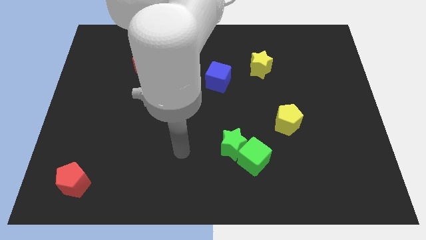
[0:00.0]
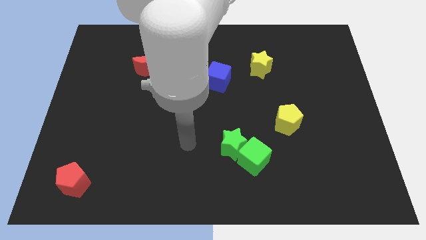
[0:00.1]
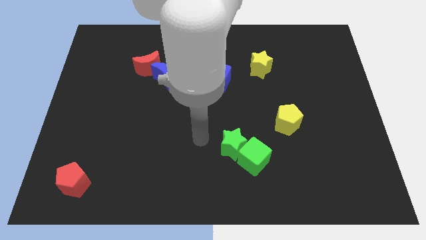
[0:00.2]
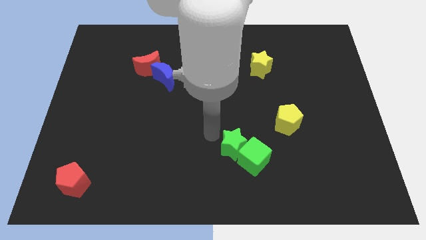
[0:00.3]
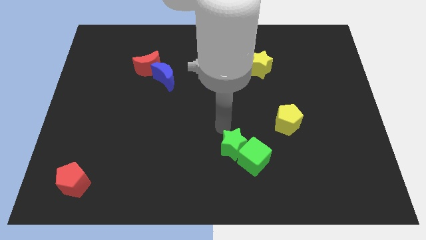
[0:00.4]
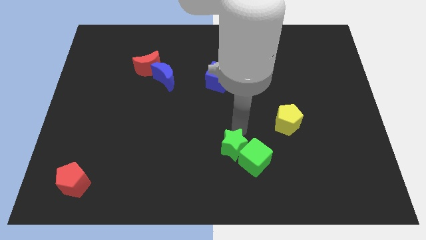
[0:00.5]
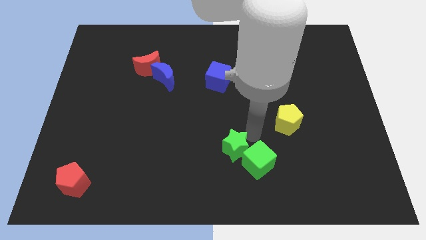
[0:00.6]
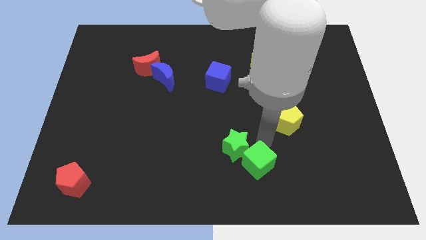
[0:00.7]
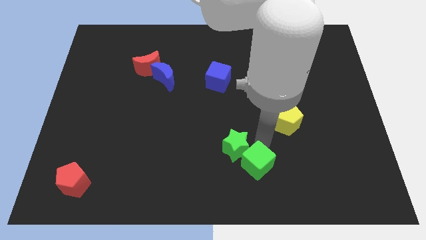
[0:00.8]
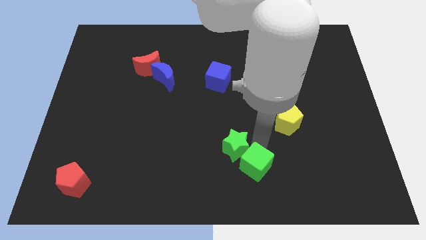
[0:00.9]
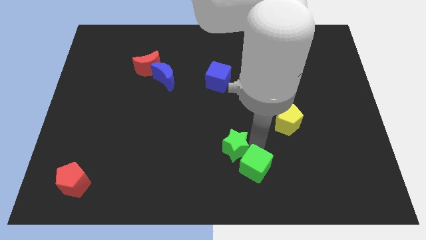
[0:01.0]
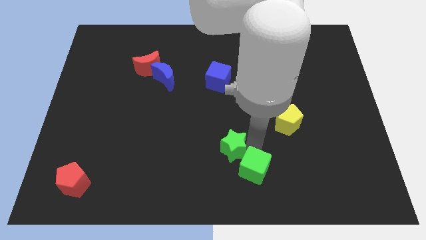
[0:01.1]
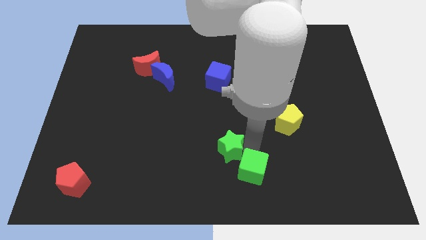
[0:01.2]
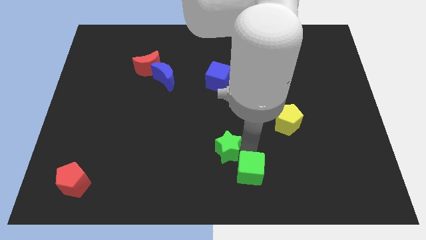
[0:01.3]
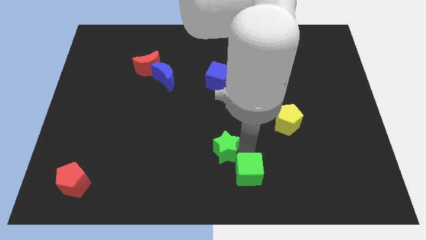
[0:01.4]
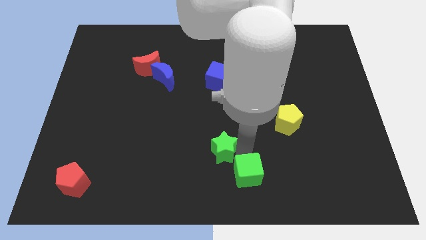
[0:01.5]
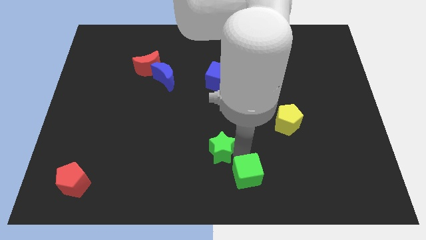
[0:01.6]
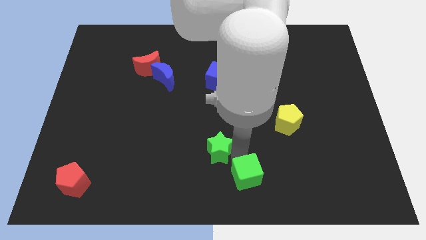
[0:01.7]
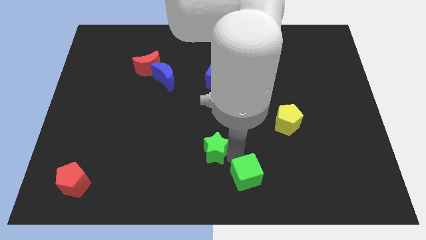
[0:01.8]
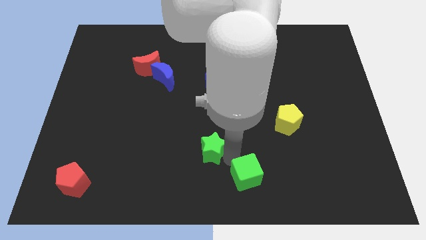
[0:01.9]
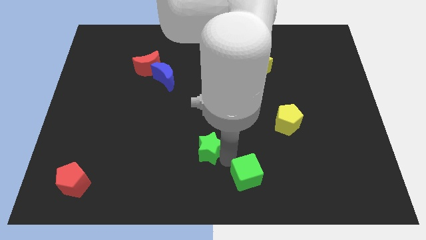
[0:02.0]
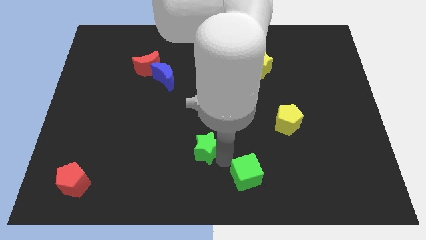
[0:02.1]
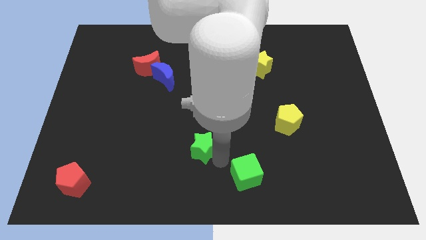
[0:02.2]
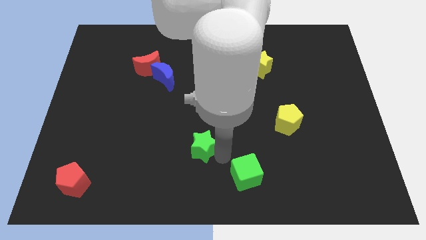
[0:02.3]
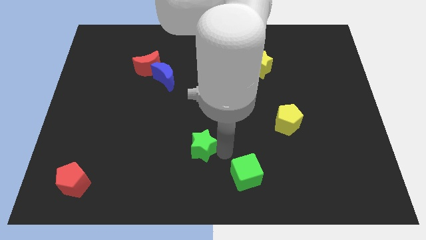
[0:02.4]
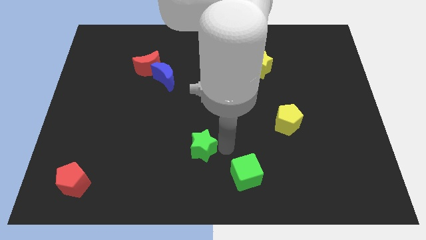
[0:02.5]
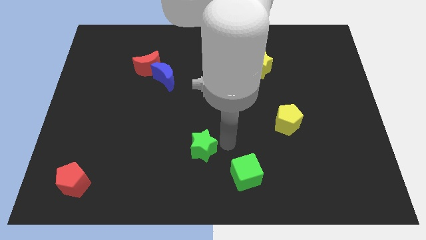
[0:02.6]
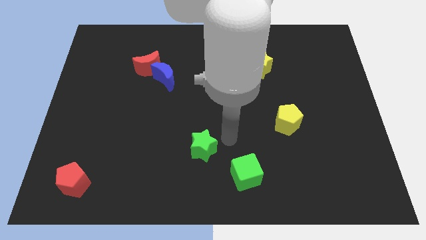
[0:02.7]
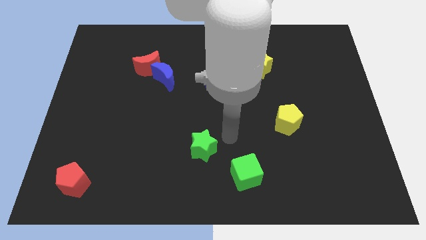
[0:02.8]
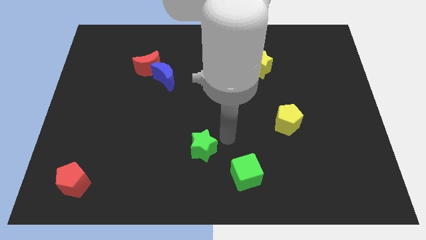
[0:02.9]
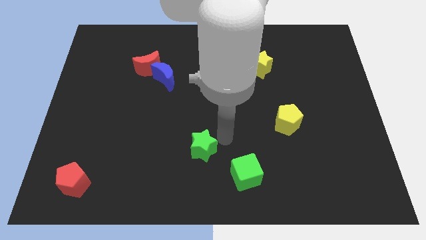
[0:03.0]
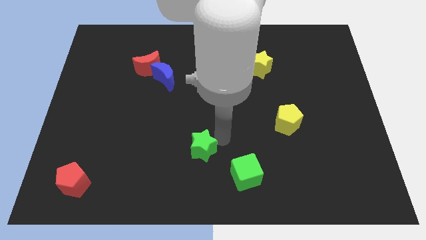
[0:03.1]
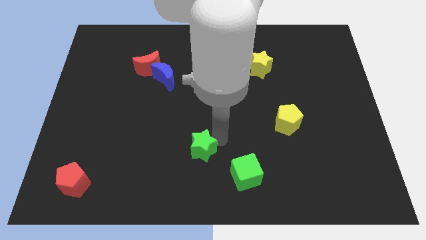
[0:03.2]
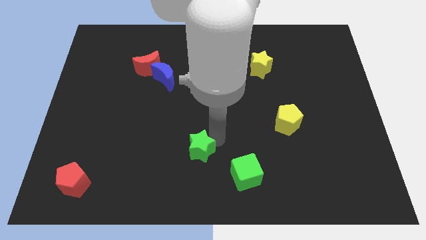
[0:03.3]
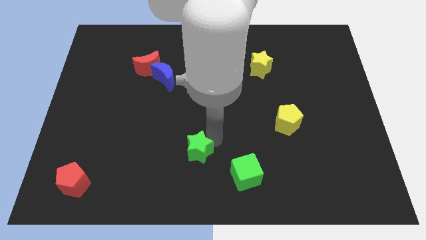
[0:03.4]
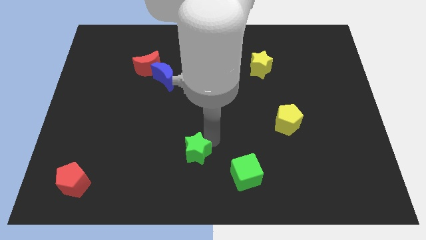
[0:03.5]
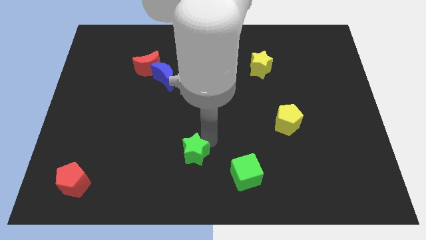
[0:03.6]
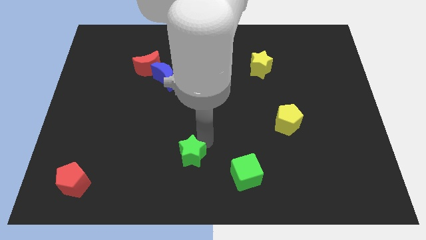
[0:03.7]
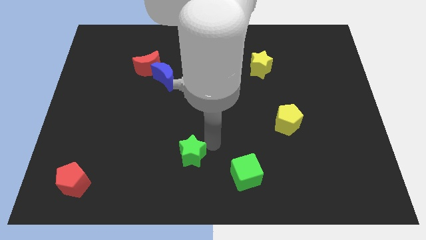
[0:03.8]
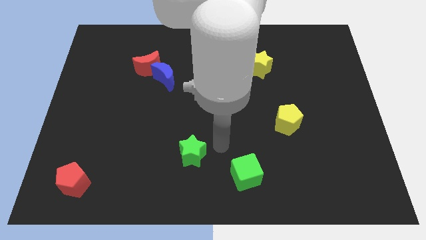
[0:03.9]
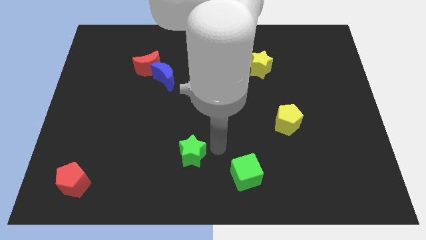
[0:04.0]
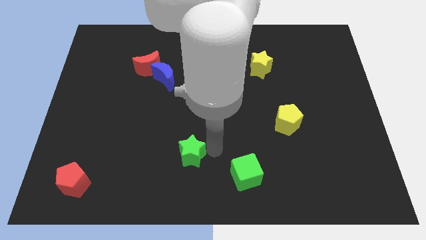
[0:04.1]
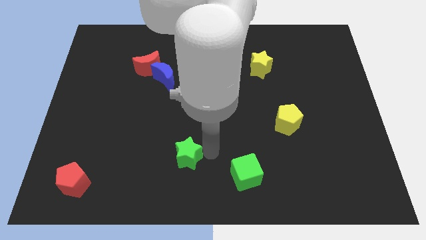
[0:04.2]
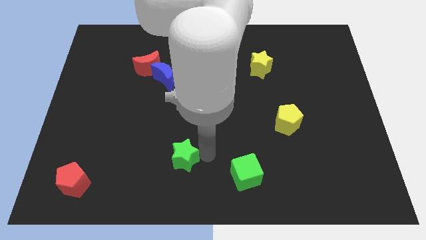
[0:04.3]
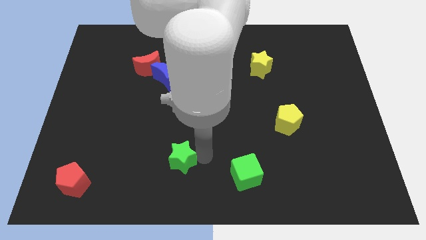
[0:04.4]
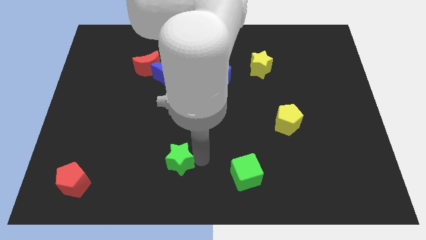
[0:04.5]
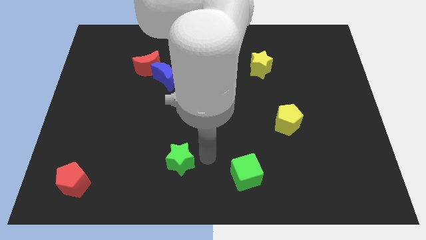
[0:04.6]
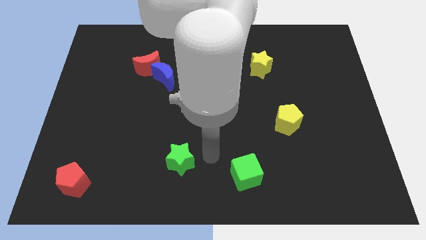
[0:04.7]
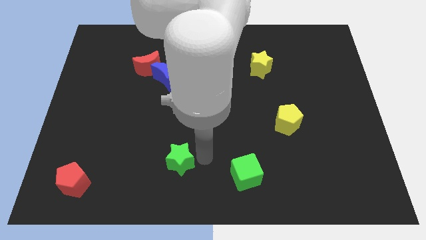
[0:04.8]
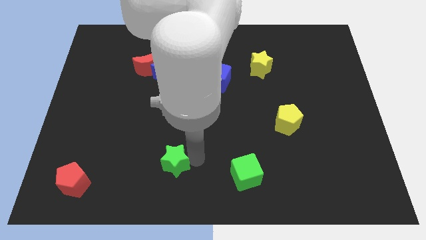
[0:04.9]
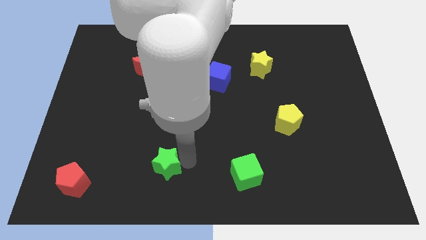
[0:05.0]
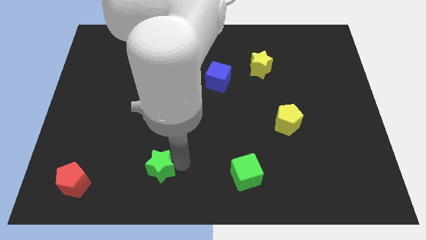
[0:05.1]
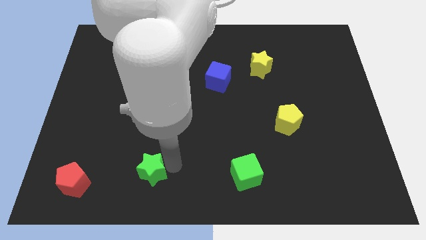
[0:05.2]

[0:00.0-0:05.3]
move the green star to the right of the red pentagon

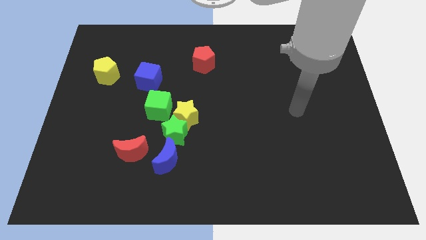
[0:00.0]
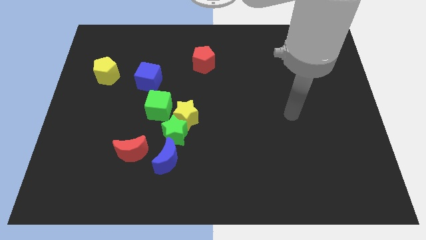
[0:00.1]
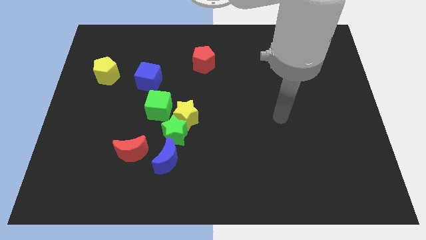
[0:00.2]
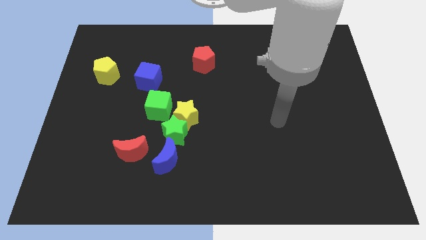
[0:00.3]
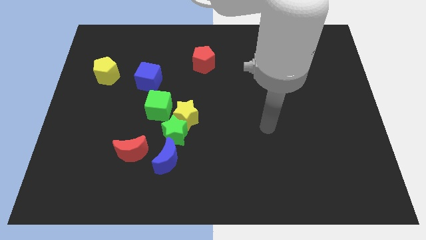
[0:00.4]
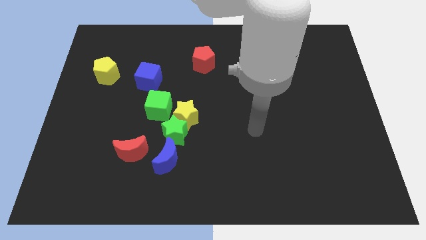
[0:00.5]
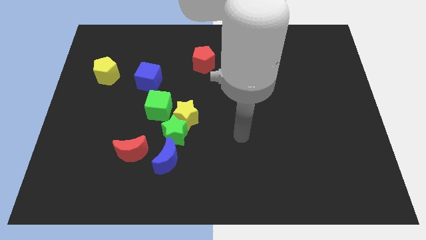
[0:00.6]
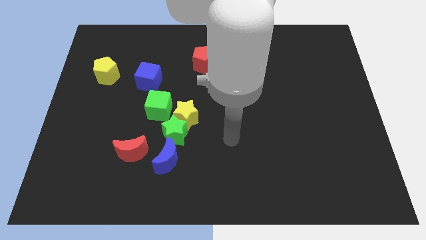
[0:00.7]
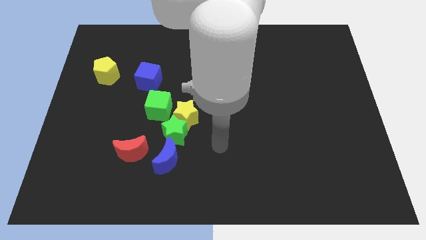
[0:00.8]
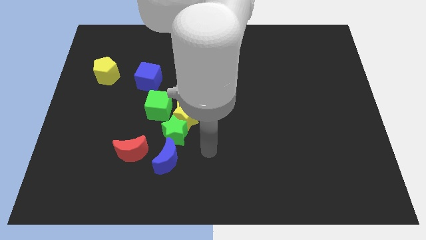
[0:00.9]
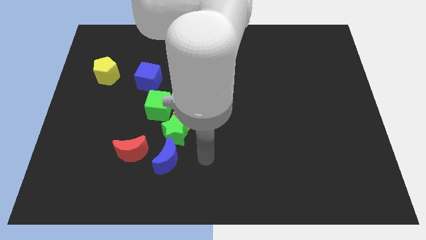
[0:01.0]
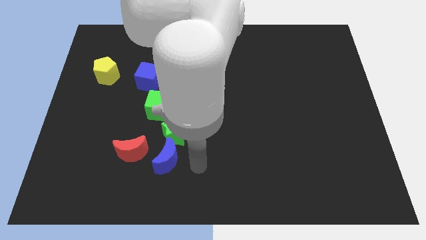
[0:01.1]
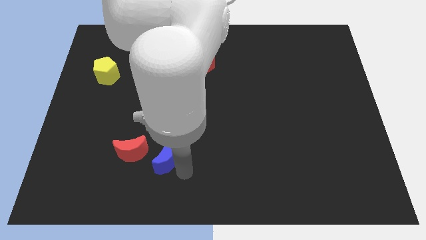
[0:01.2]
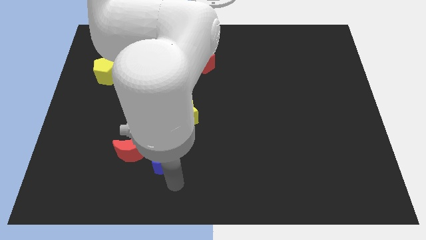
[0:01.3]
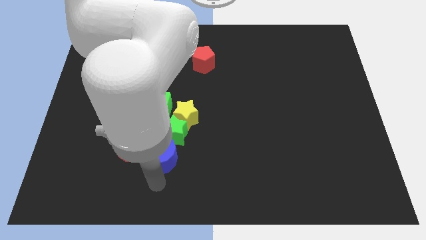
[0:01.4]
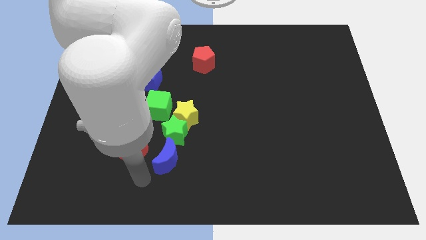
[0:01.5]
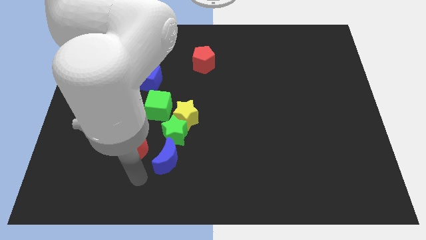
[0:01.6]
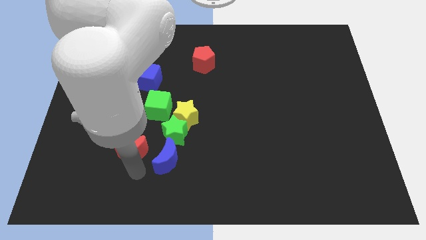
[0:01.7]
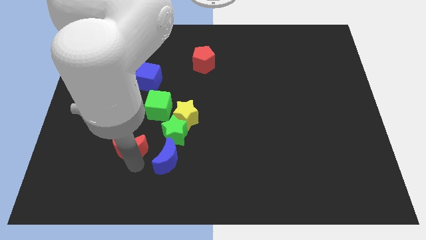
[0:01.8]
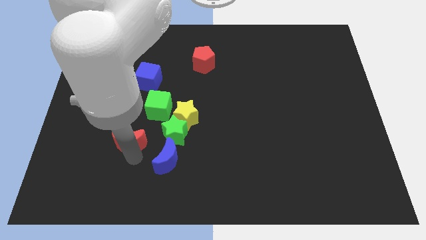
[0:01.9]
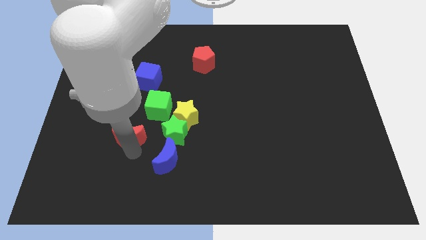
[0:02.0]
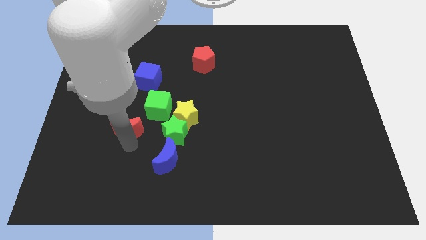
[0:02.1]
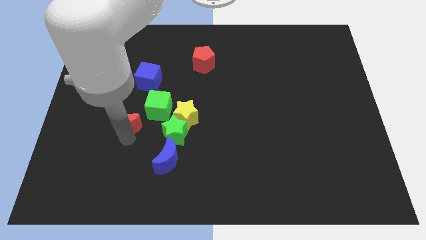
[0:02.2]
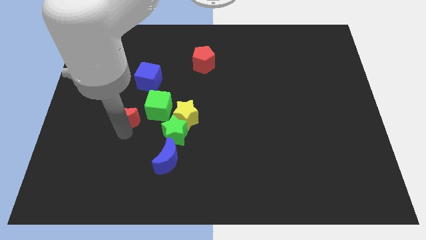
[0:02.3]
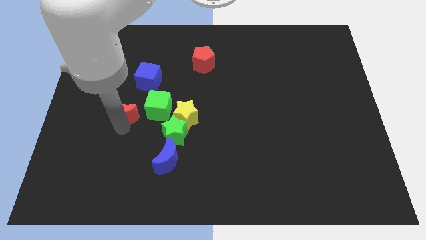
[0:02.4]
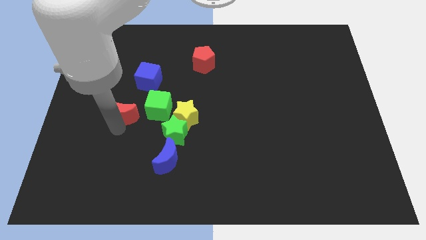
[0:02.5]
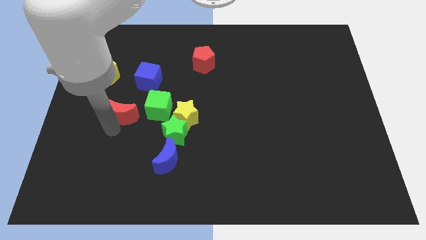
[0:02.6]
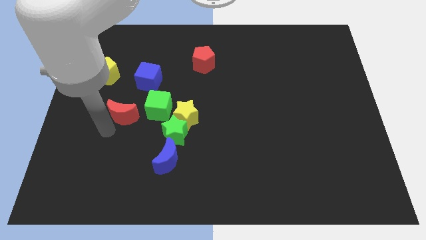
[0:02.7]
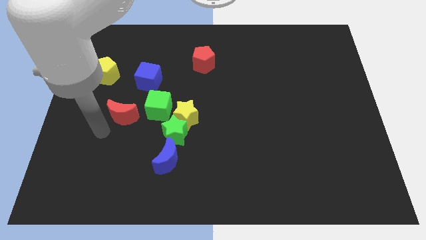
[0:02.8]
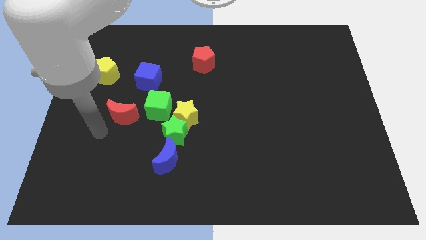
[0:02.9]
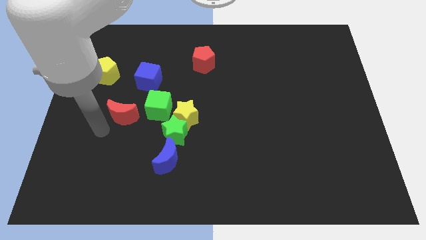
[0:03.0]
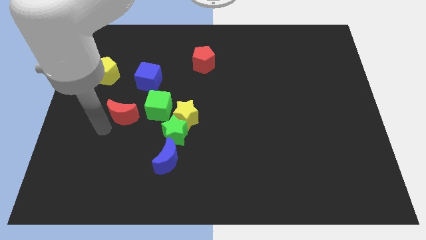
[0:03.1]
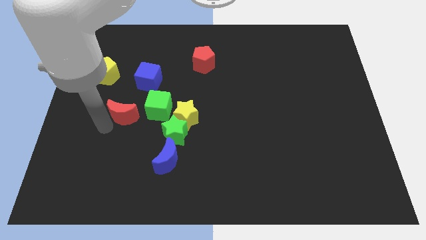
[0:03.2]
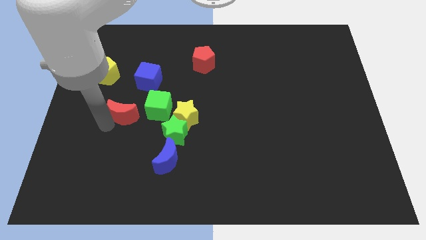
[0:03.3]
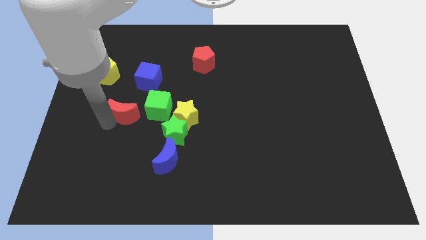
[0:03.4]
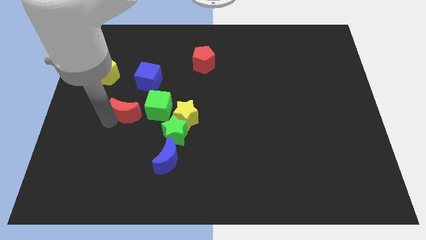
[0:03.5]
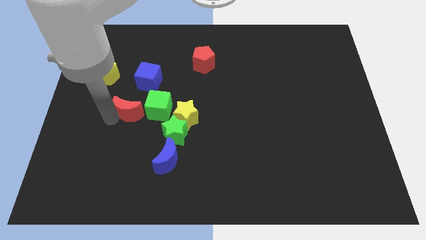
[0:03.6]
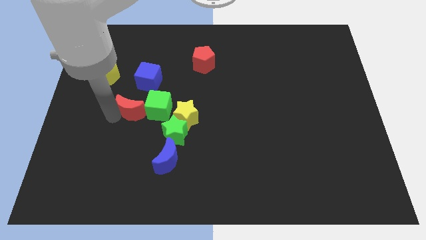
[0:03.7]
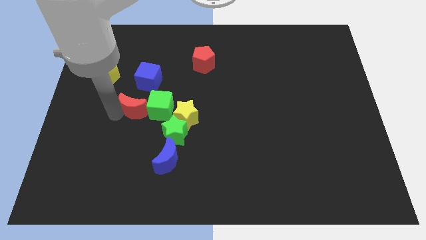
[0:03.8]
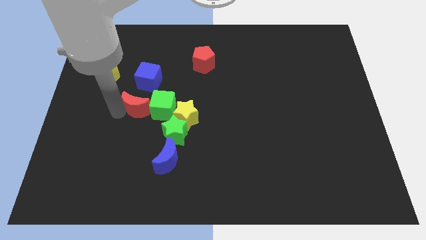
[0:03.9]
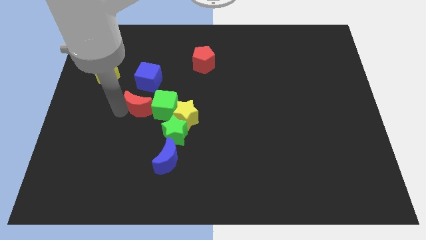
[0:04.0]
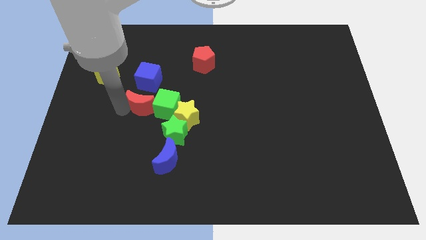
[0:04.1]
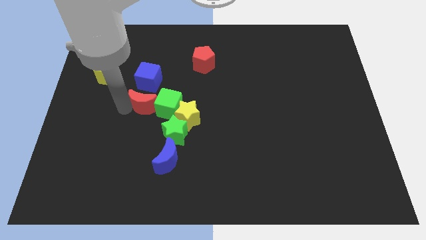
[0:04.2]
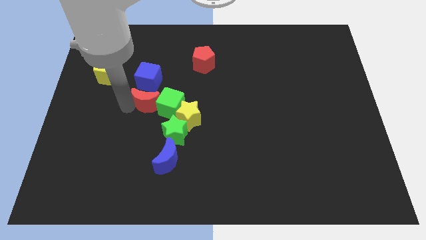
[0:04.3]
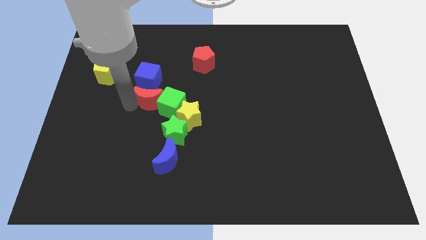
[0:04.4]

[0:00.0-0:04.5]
slide the red moon to the top left side of the yellow star
